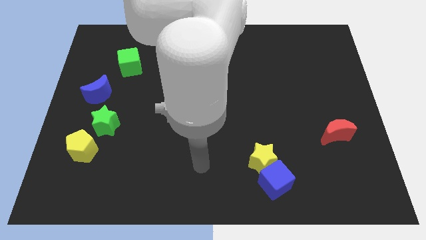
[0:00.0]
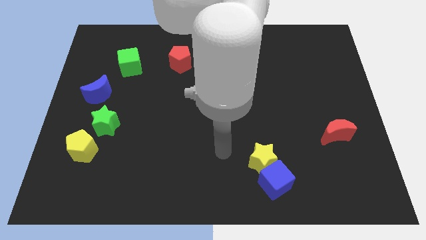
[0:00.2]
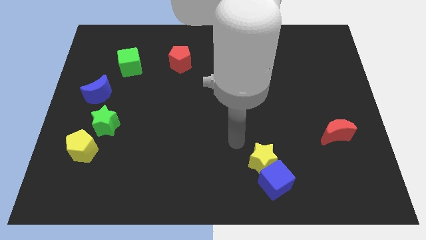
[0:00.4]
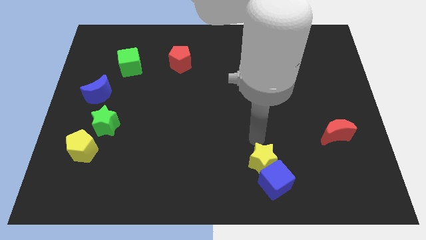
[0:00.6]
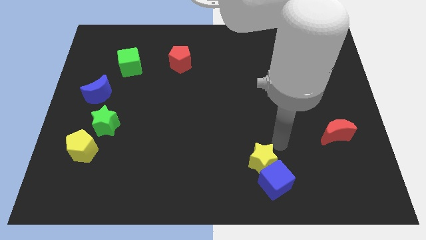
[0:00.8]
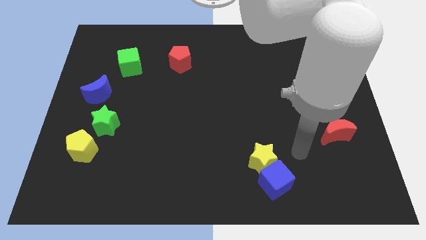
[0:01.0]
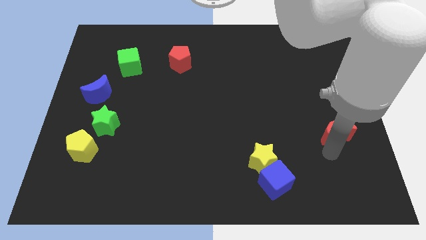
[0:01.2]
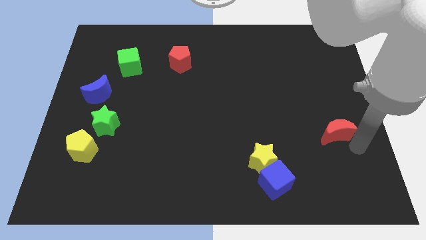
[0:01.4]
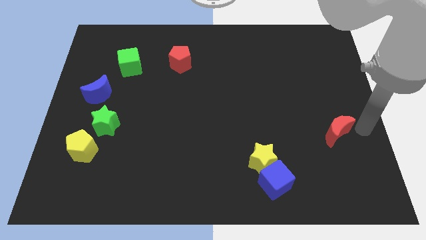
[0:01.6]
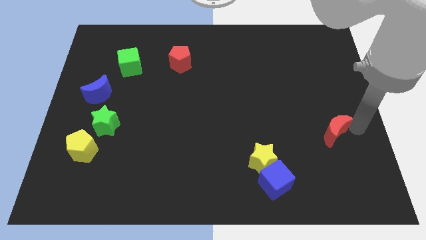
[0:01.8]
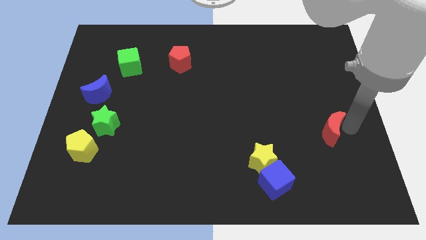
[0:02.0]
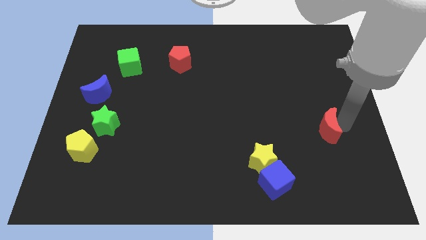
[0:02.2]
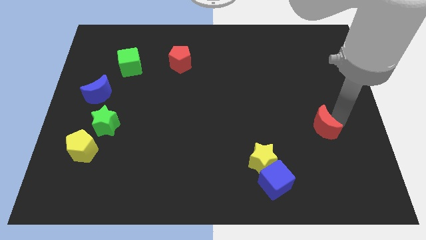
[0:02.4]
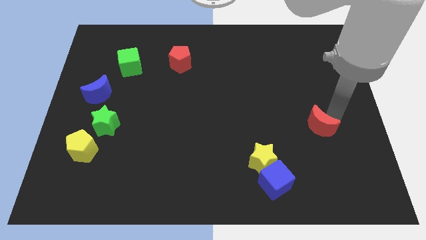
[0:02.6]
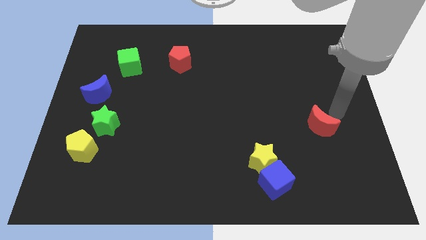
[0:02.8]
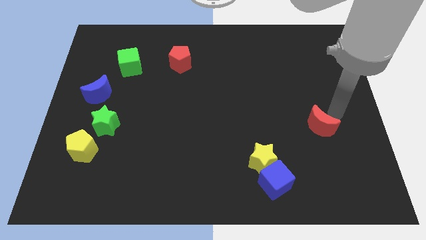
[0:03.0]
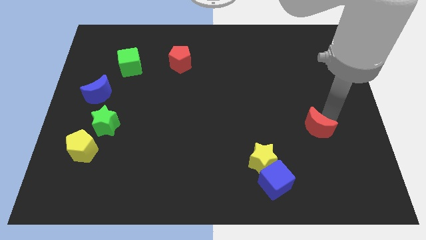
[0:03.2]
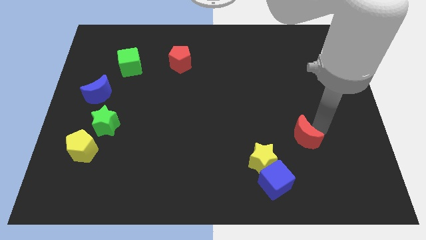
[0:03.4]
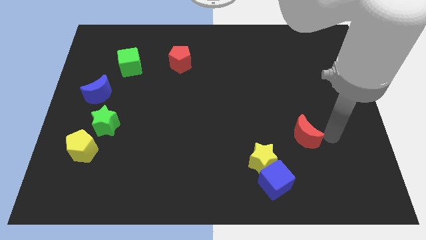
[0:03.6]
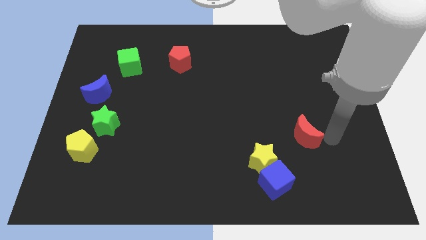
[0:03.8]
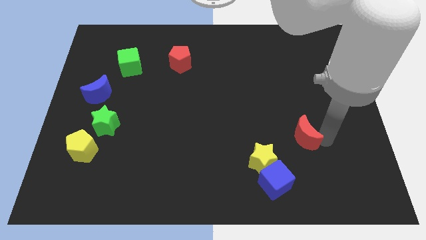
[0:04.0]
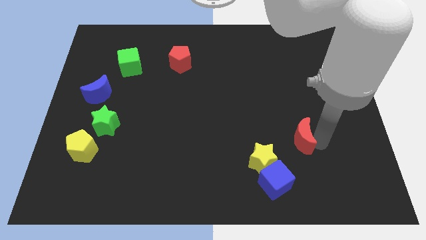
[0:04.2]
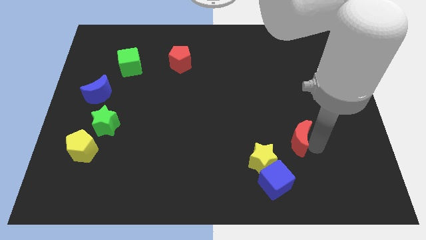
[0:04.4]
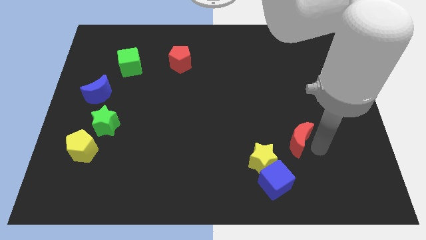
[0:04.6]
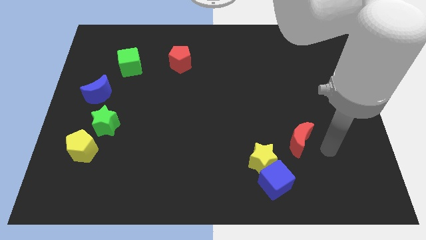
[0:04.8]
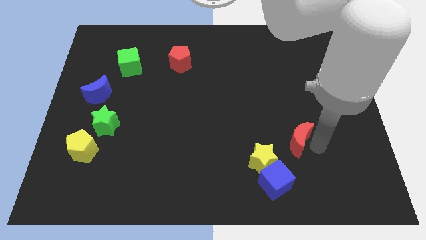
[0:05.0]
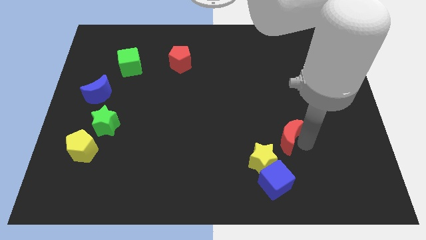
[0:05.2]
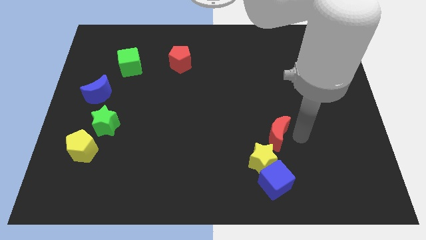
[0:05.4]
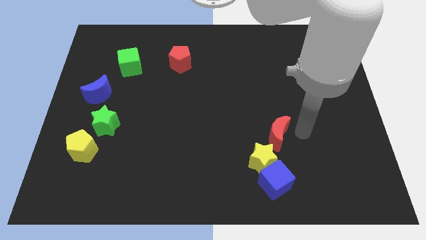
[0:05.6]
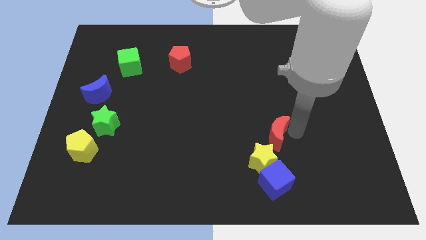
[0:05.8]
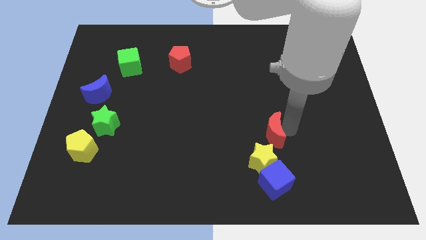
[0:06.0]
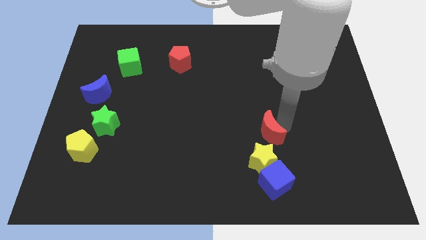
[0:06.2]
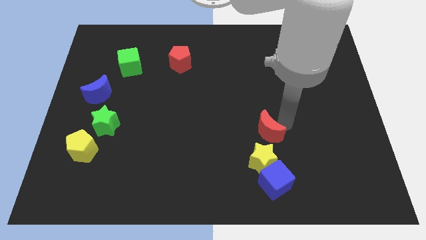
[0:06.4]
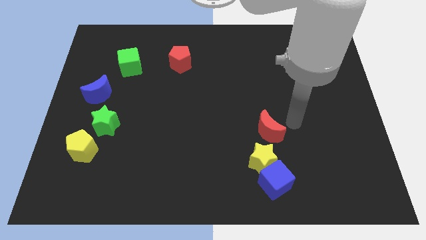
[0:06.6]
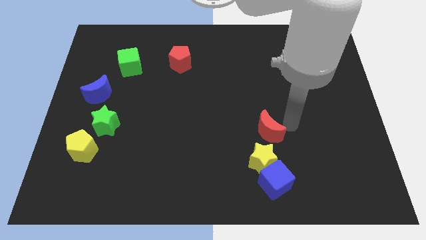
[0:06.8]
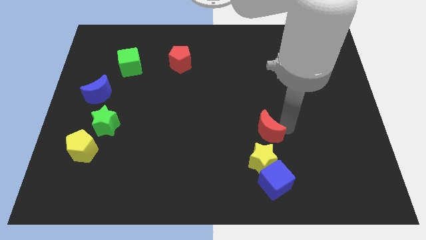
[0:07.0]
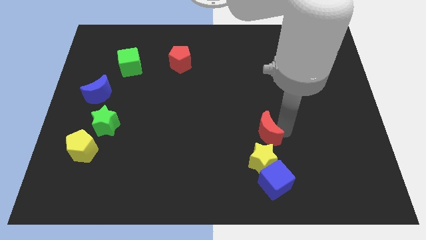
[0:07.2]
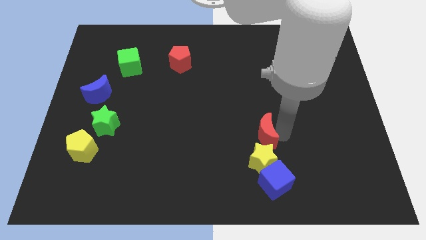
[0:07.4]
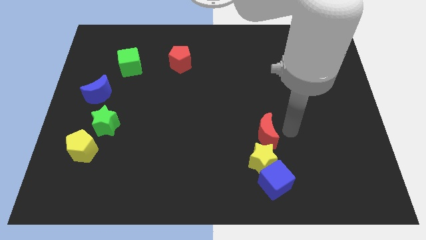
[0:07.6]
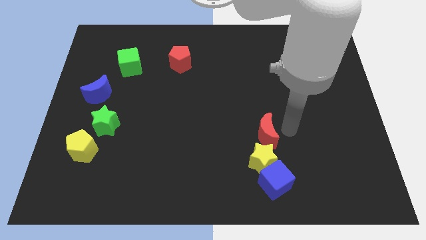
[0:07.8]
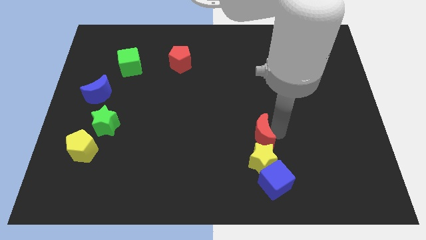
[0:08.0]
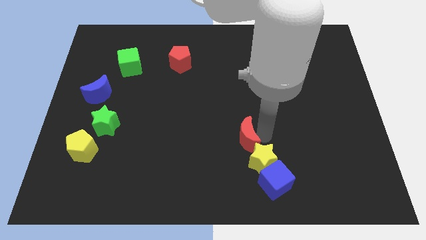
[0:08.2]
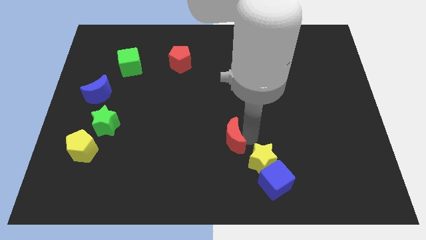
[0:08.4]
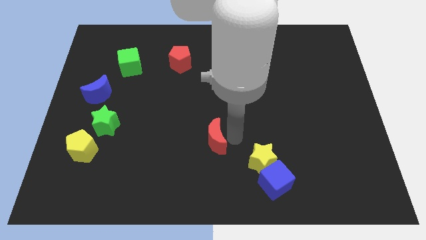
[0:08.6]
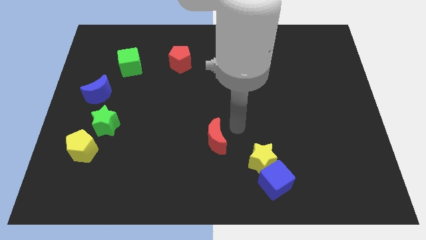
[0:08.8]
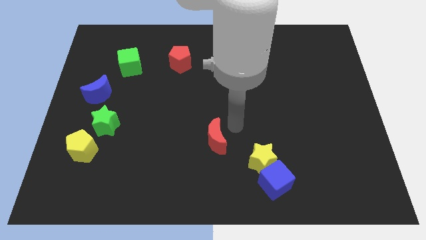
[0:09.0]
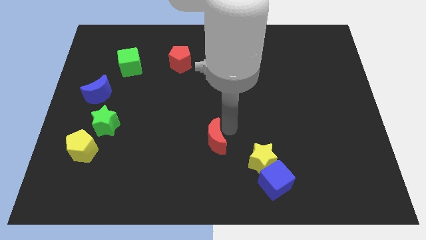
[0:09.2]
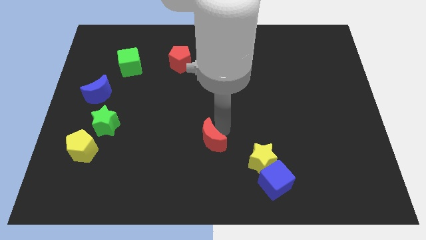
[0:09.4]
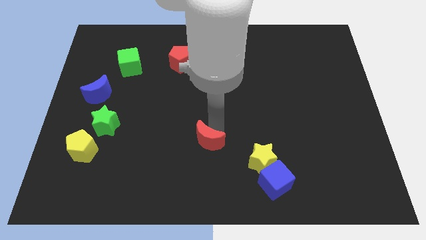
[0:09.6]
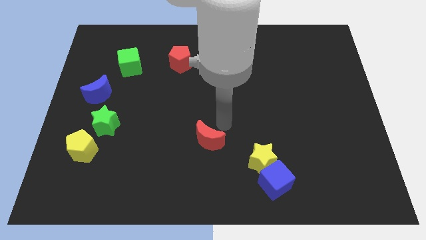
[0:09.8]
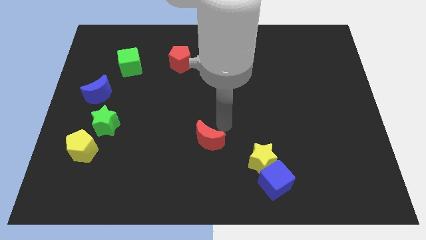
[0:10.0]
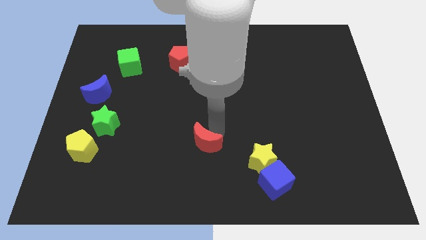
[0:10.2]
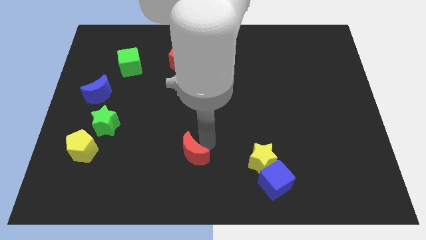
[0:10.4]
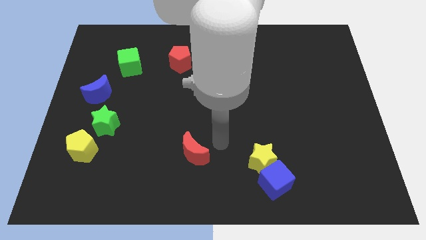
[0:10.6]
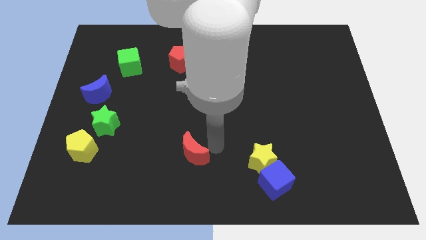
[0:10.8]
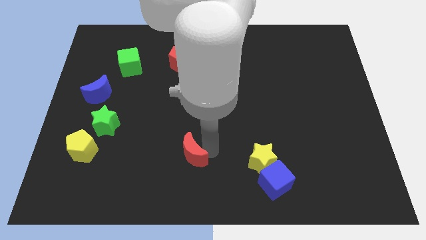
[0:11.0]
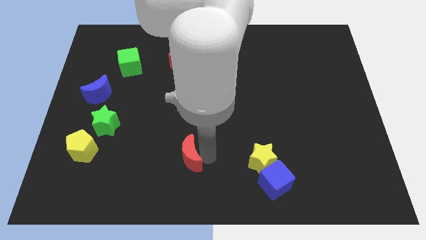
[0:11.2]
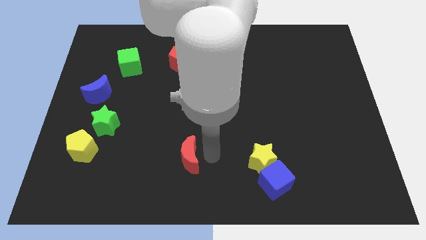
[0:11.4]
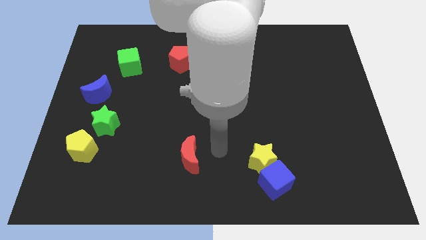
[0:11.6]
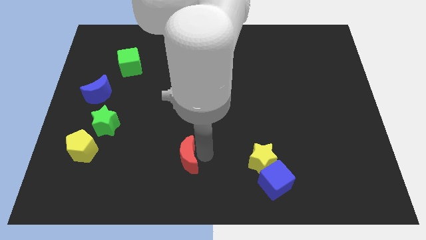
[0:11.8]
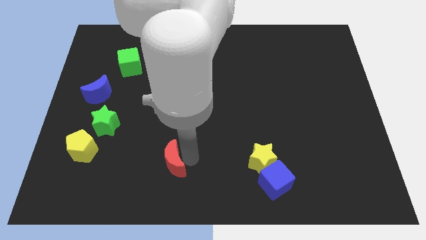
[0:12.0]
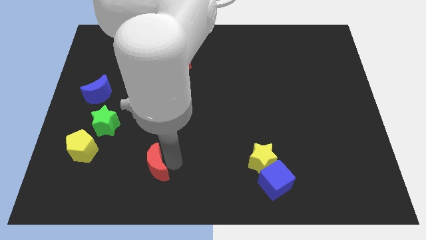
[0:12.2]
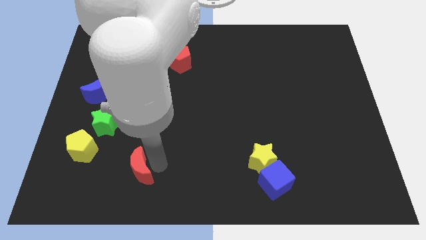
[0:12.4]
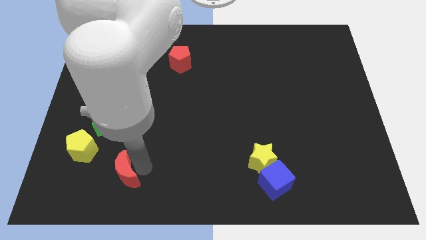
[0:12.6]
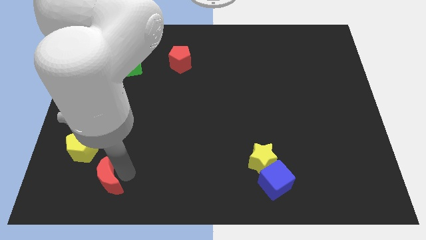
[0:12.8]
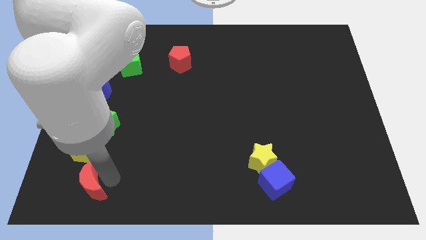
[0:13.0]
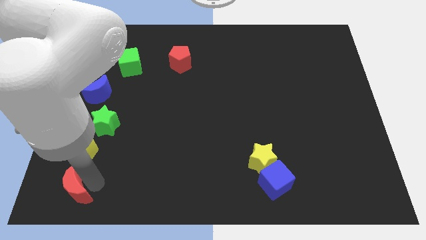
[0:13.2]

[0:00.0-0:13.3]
push the red moon to the bottom left
